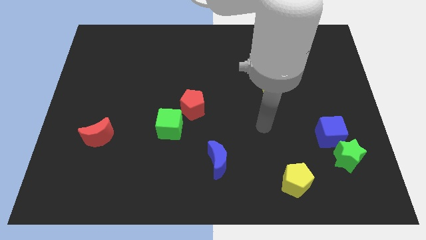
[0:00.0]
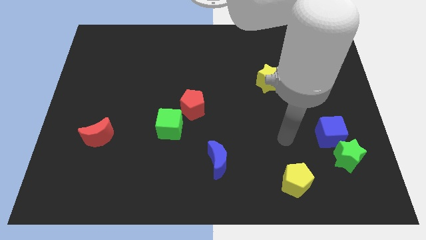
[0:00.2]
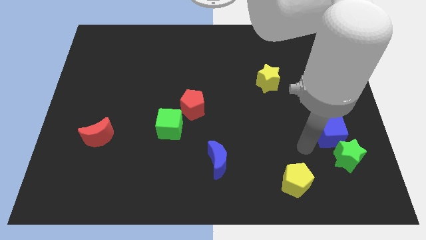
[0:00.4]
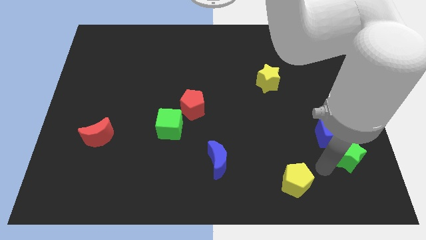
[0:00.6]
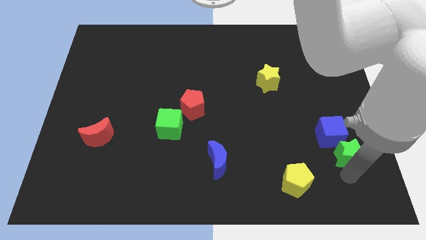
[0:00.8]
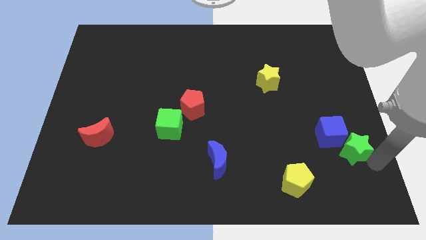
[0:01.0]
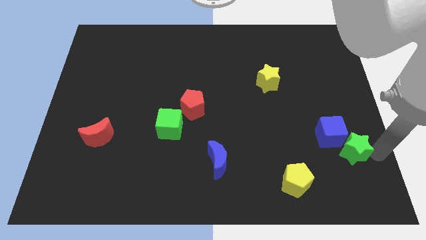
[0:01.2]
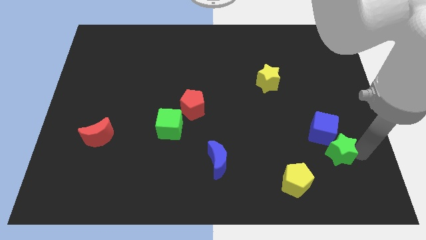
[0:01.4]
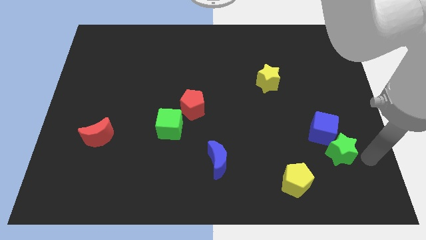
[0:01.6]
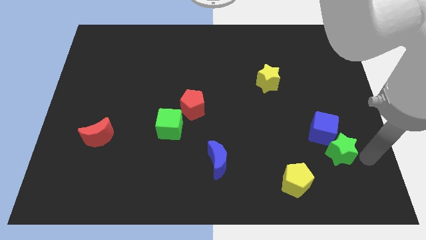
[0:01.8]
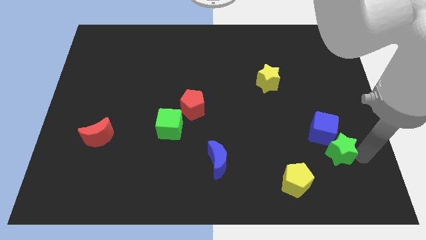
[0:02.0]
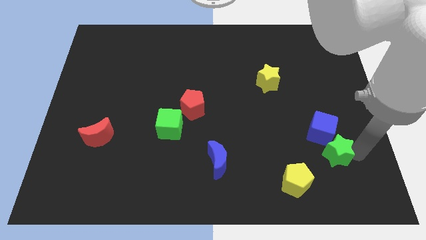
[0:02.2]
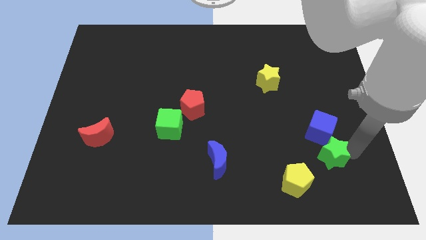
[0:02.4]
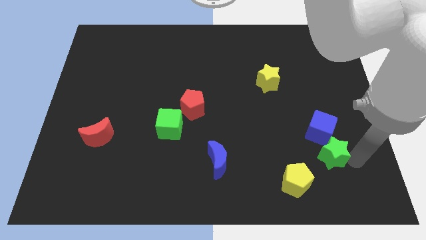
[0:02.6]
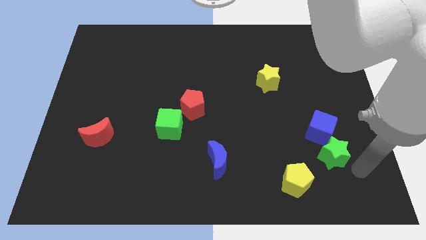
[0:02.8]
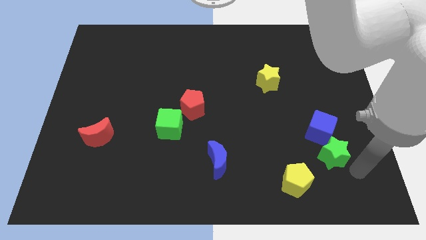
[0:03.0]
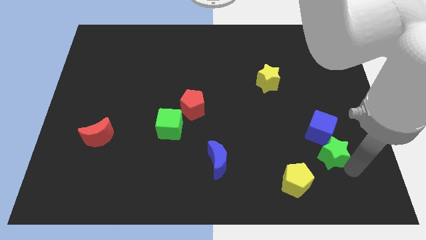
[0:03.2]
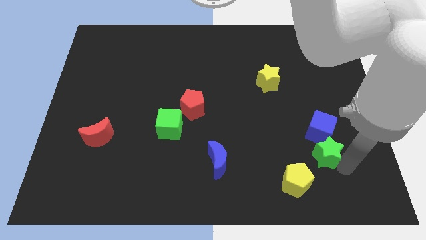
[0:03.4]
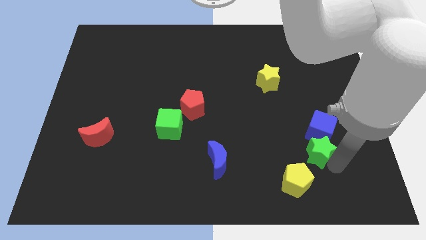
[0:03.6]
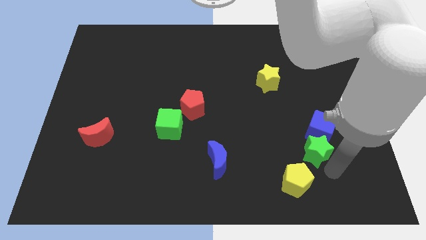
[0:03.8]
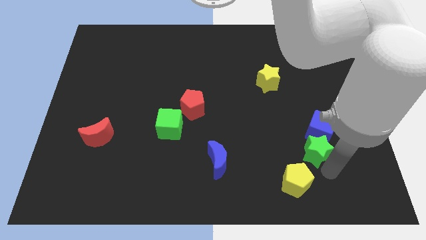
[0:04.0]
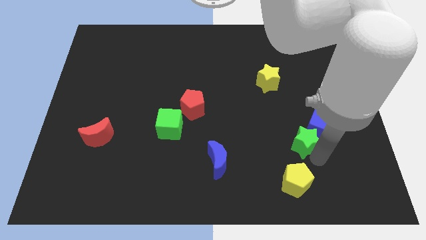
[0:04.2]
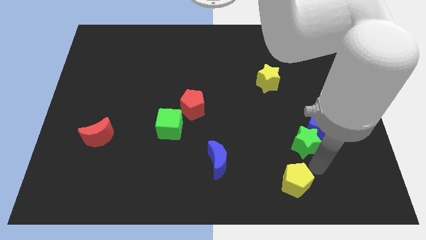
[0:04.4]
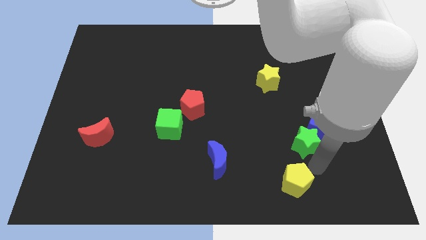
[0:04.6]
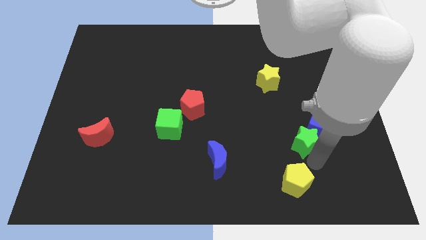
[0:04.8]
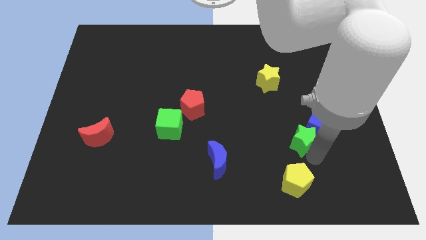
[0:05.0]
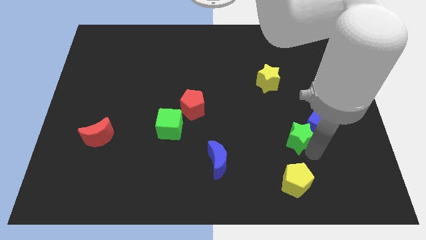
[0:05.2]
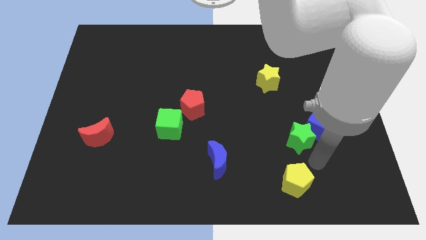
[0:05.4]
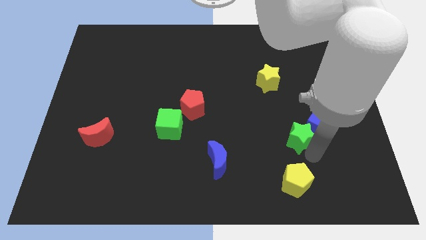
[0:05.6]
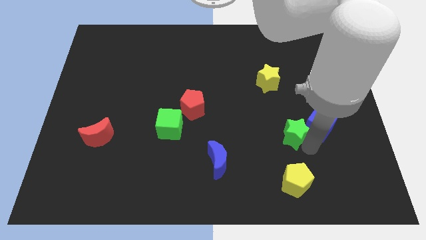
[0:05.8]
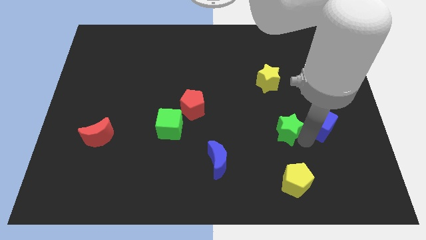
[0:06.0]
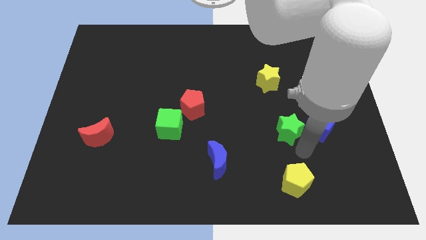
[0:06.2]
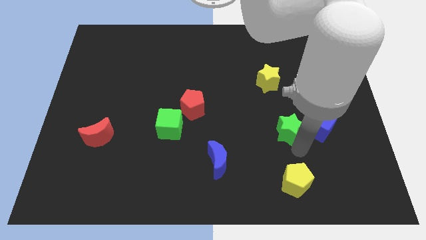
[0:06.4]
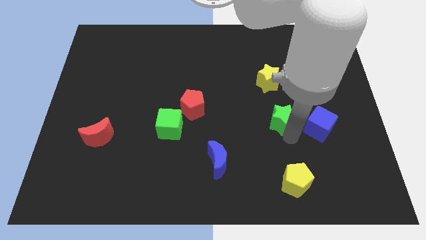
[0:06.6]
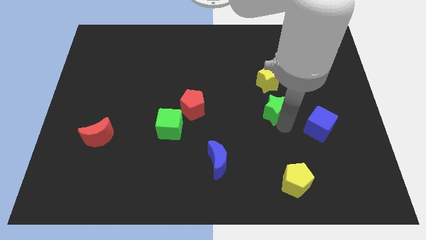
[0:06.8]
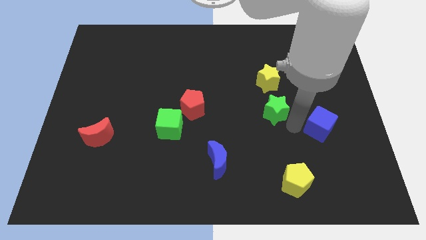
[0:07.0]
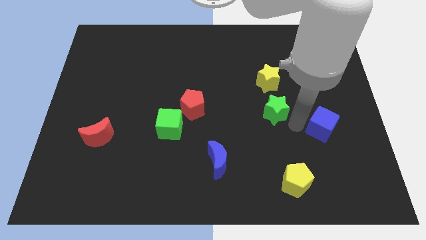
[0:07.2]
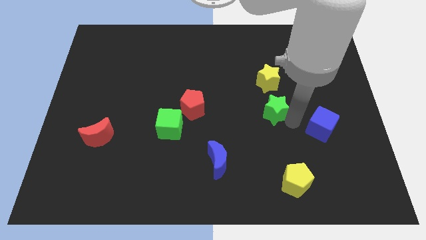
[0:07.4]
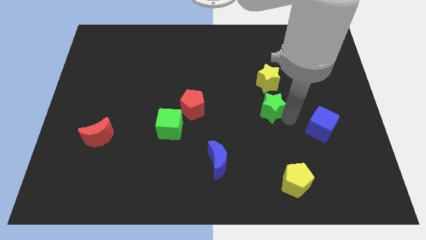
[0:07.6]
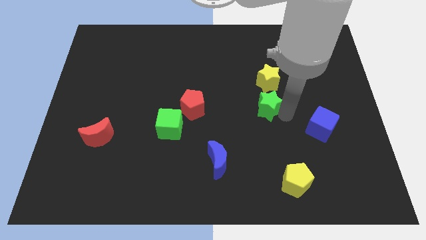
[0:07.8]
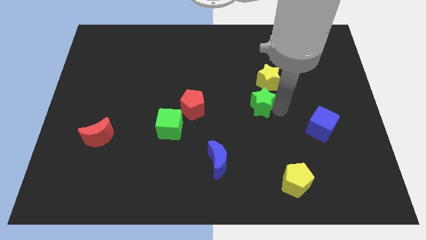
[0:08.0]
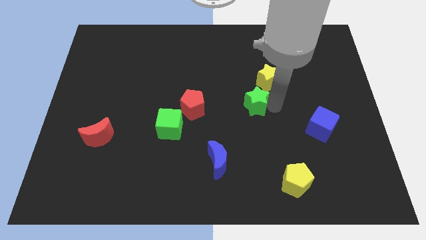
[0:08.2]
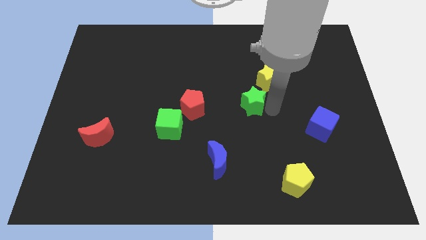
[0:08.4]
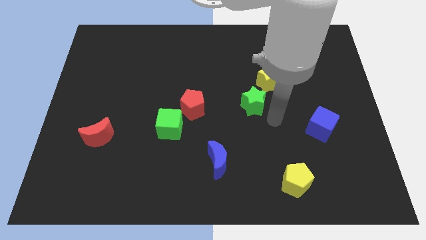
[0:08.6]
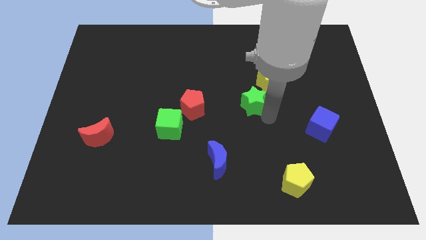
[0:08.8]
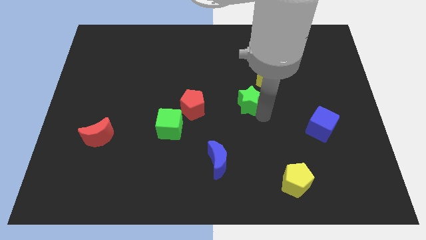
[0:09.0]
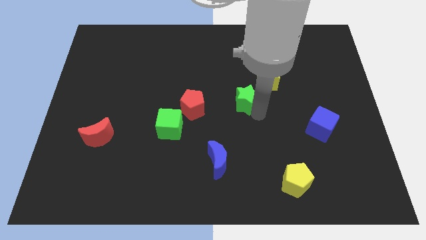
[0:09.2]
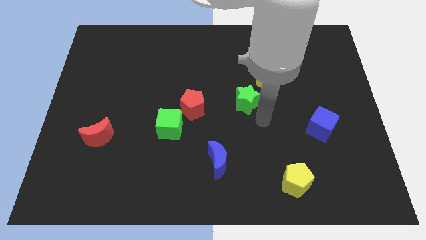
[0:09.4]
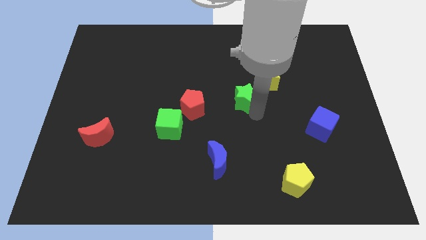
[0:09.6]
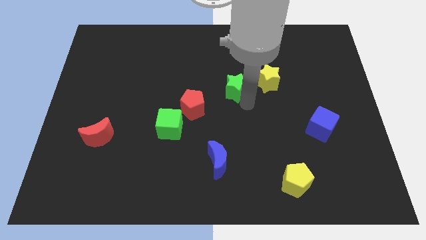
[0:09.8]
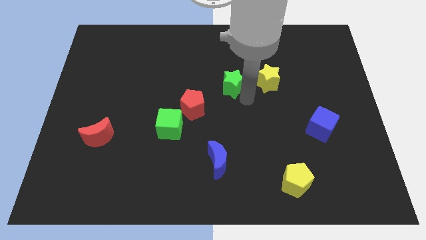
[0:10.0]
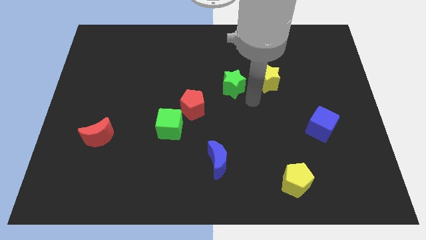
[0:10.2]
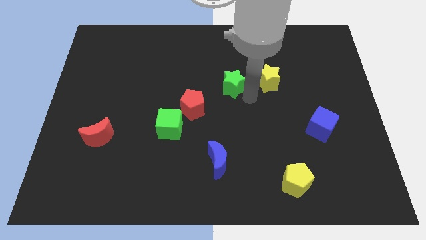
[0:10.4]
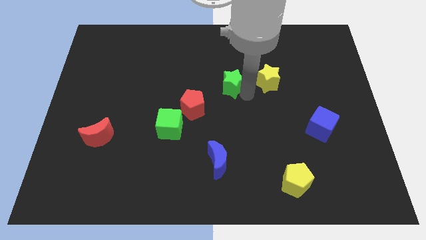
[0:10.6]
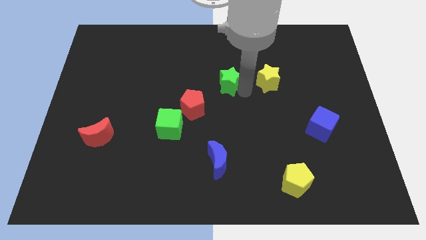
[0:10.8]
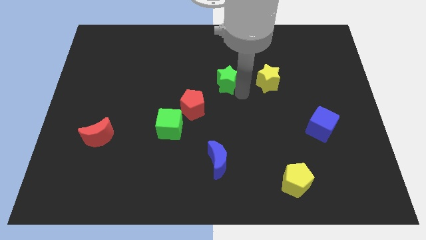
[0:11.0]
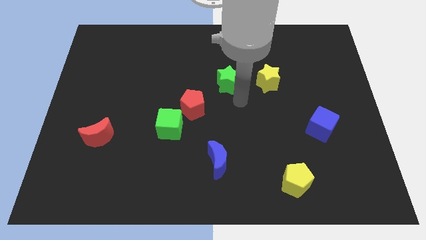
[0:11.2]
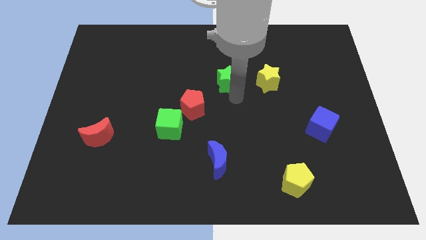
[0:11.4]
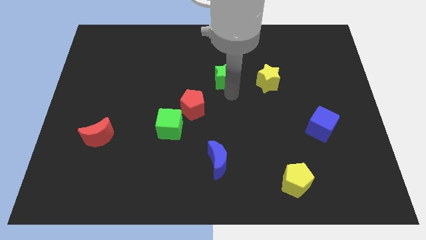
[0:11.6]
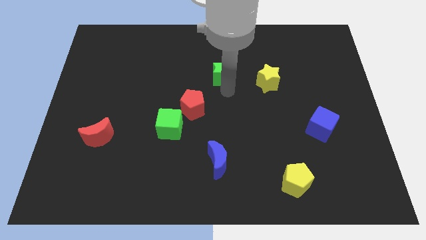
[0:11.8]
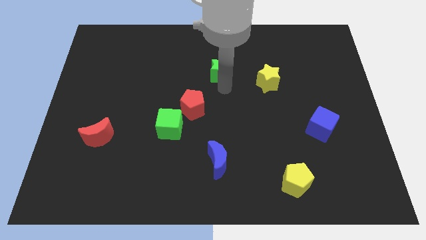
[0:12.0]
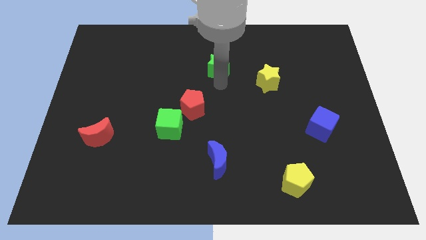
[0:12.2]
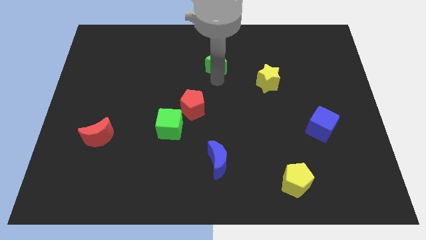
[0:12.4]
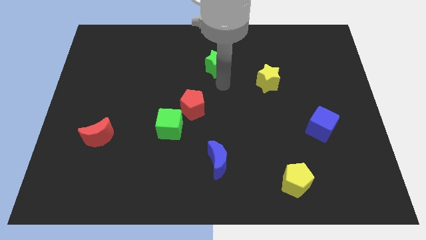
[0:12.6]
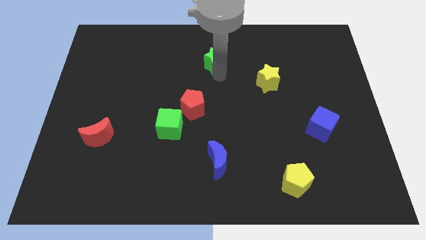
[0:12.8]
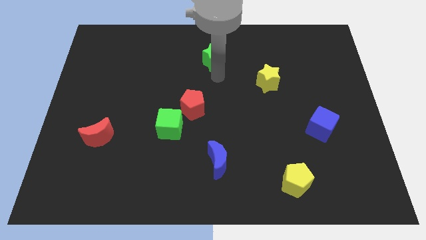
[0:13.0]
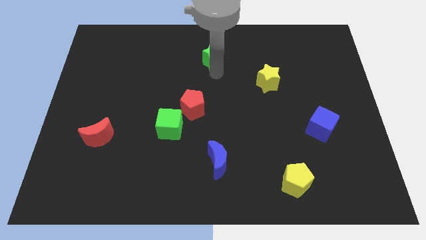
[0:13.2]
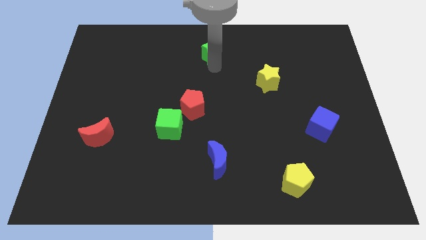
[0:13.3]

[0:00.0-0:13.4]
put the green star to the top side

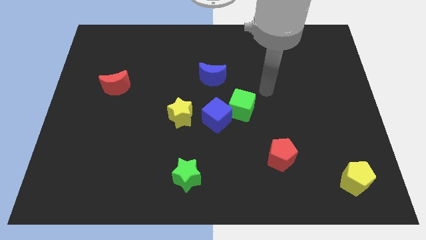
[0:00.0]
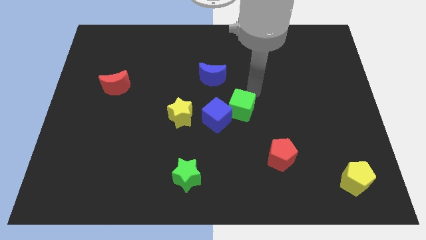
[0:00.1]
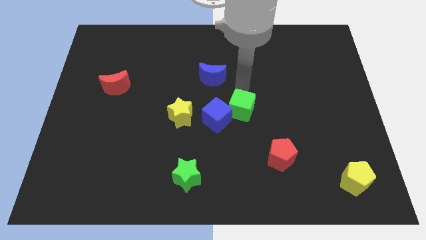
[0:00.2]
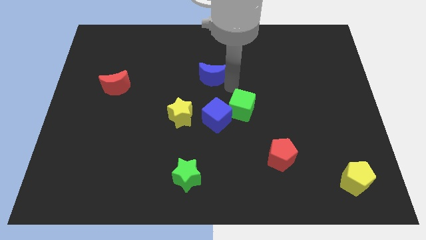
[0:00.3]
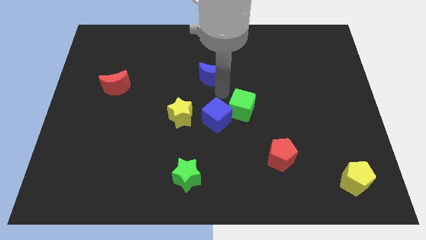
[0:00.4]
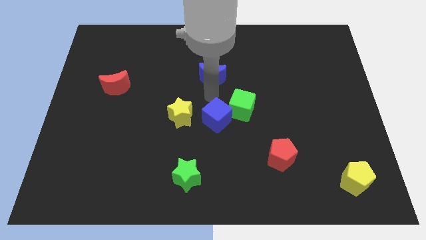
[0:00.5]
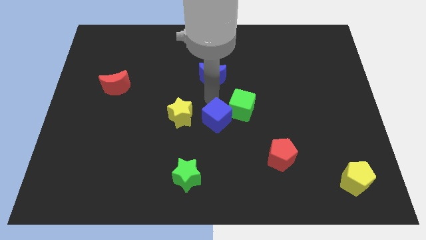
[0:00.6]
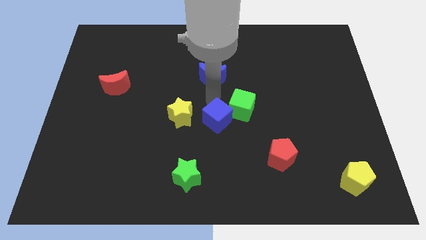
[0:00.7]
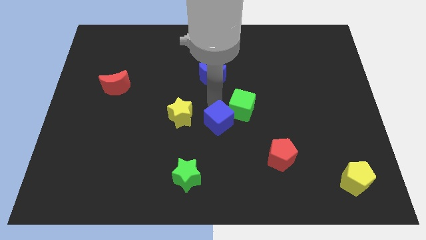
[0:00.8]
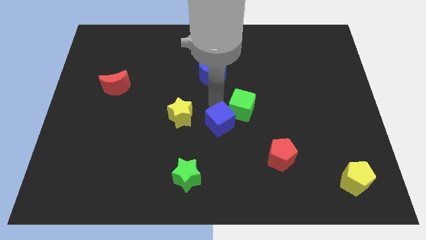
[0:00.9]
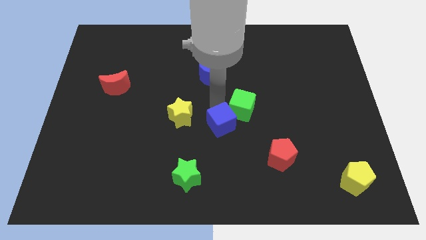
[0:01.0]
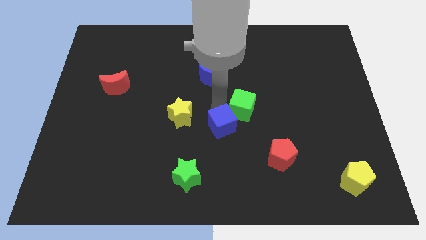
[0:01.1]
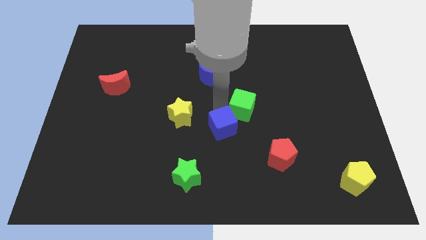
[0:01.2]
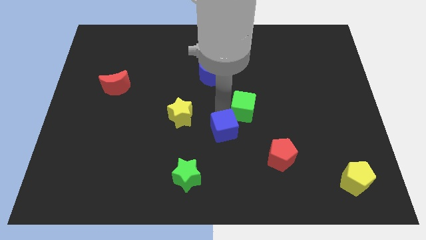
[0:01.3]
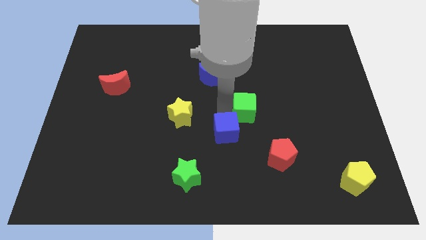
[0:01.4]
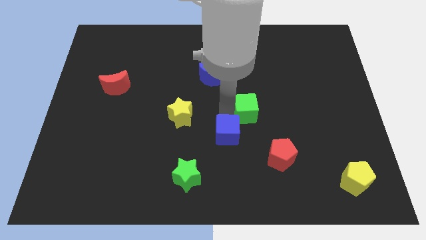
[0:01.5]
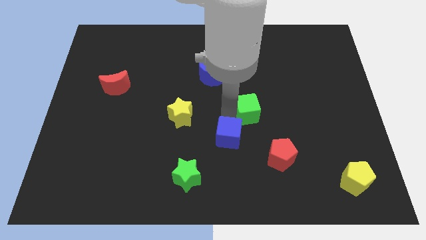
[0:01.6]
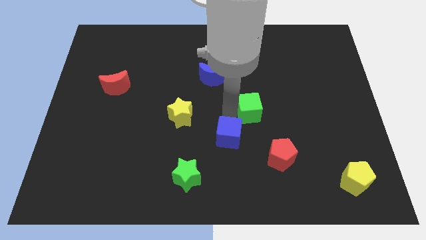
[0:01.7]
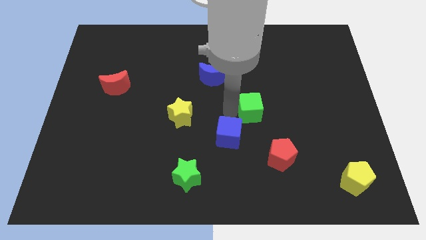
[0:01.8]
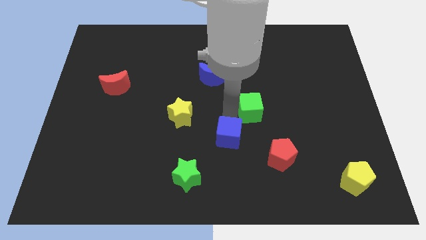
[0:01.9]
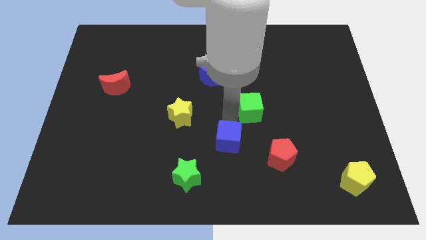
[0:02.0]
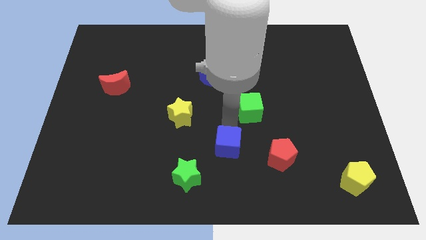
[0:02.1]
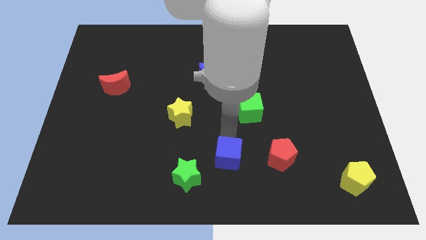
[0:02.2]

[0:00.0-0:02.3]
push the blue cube to the bottom side
